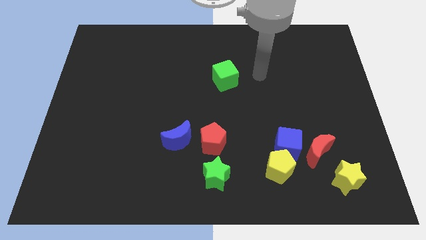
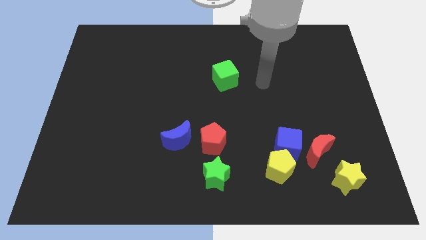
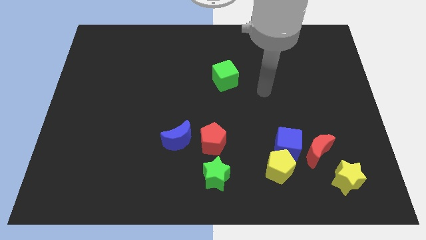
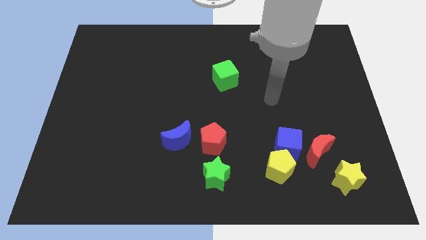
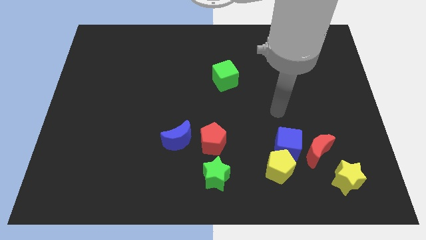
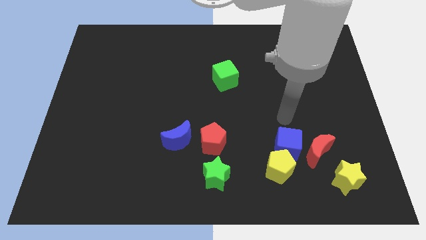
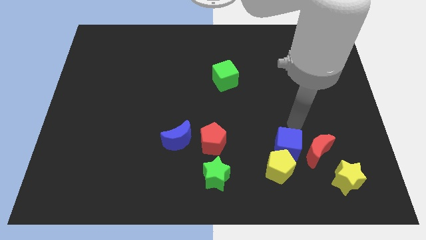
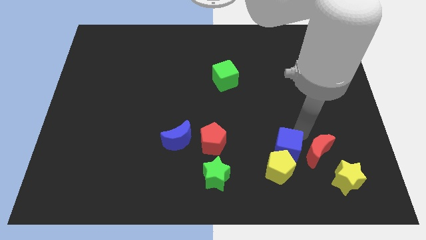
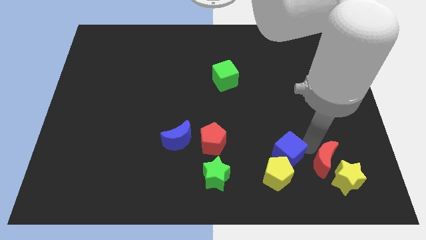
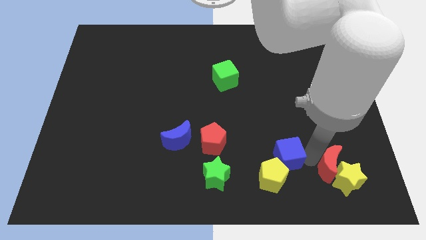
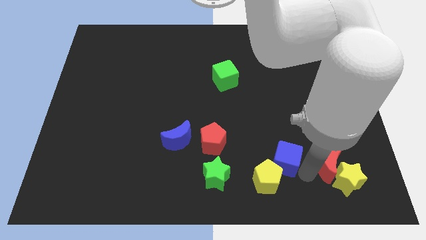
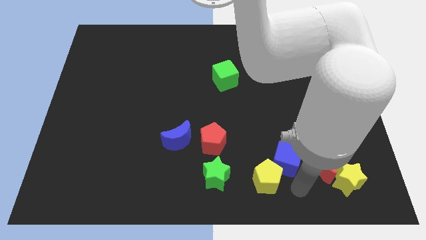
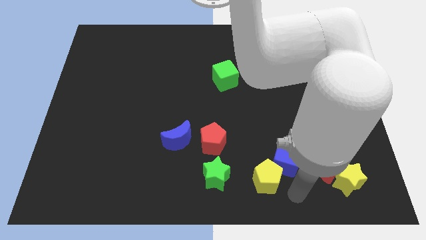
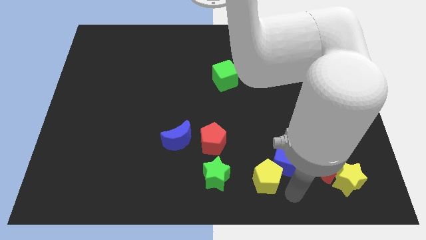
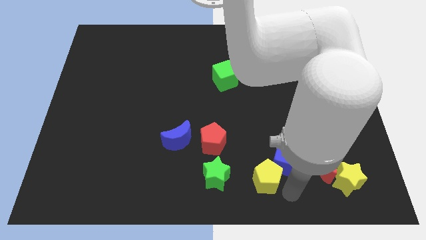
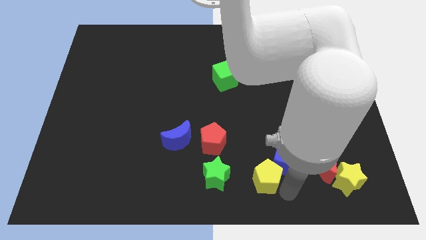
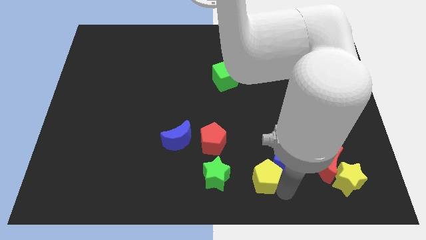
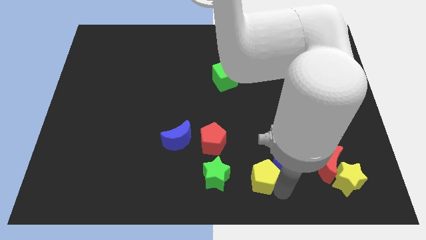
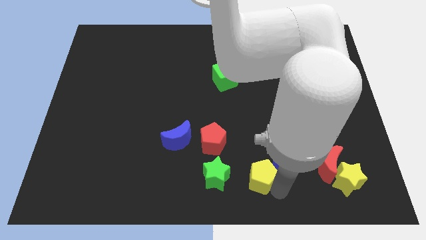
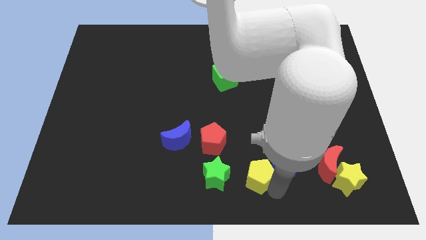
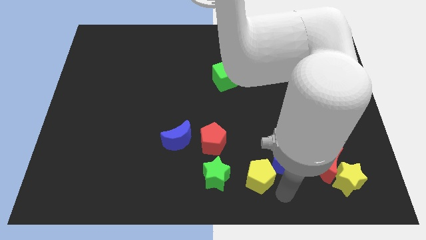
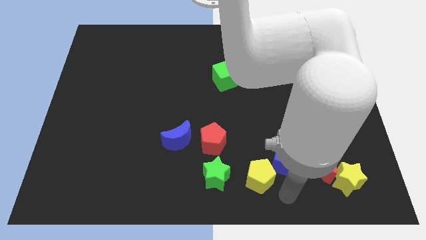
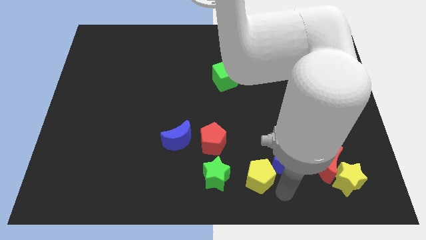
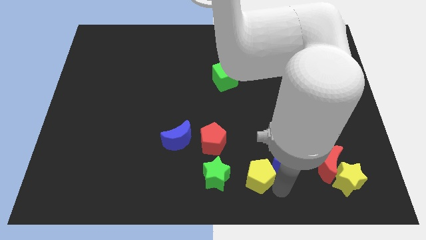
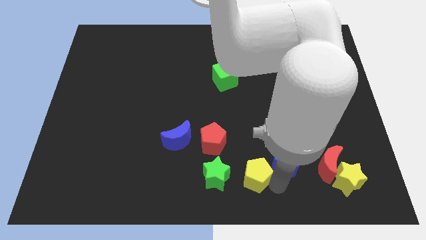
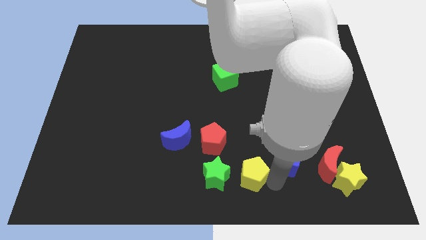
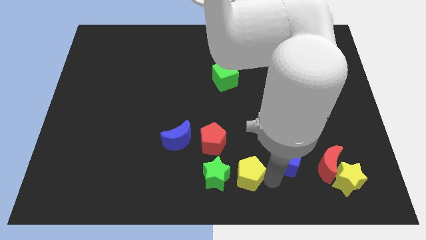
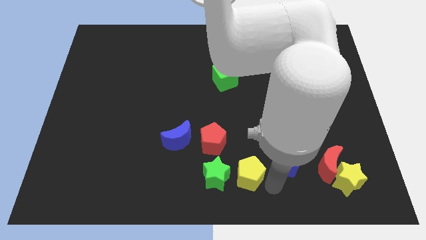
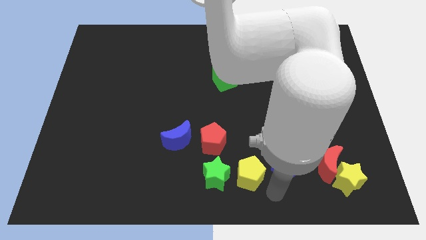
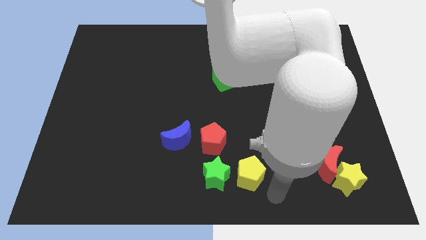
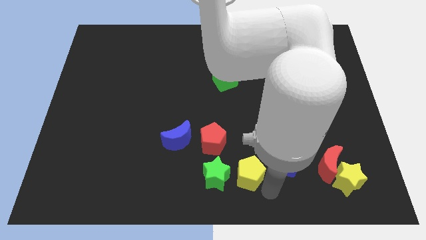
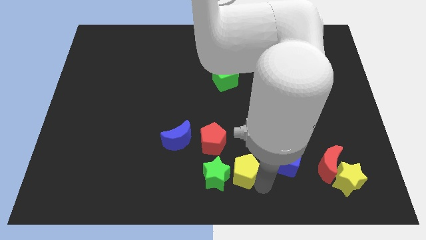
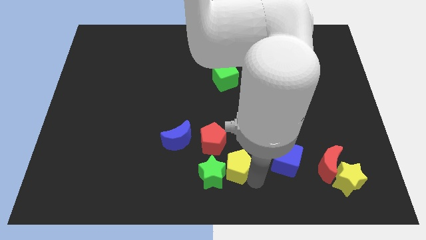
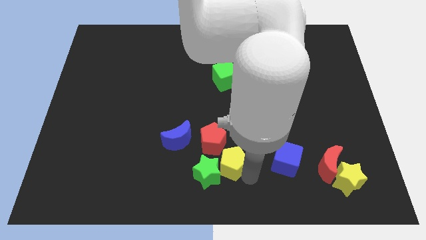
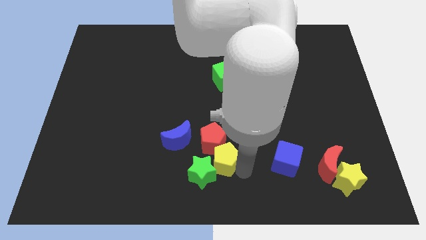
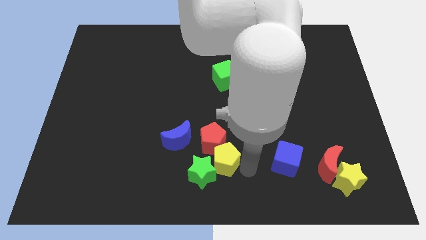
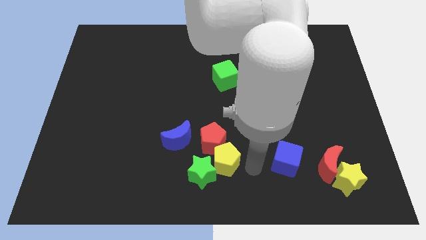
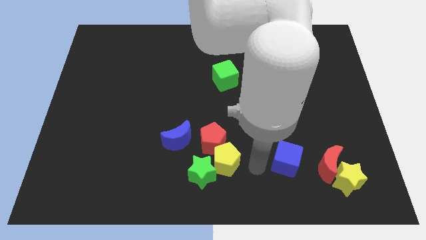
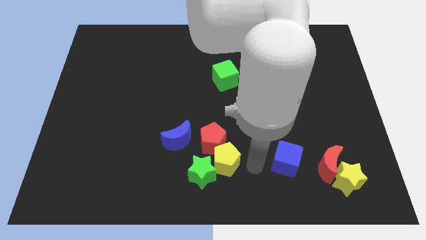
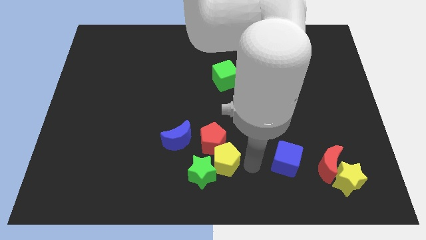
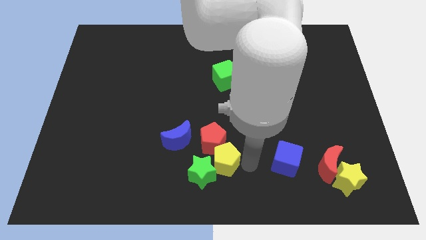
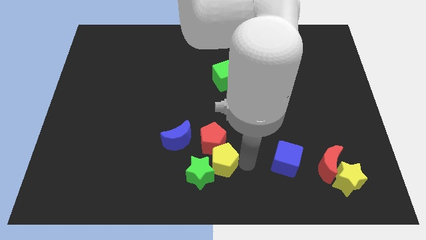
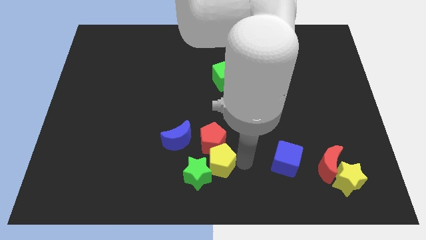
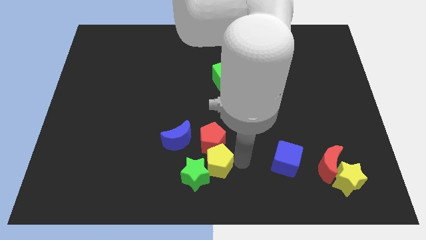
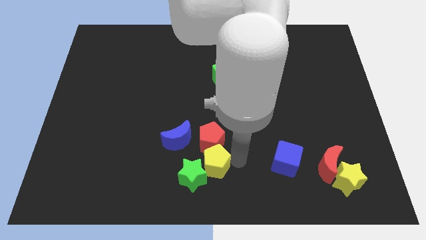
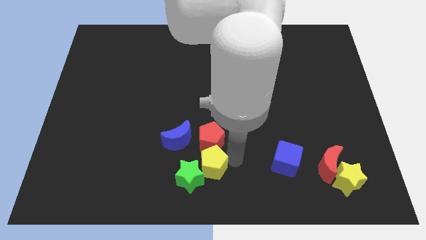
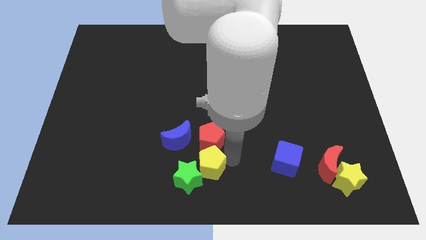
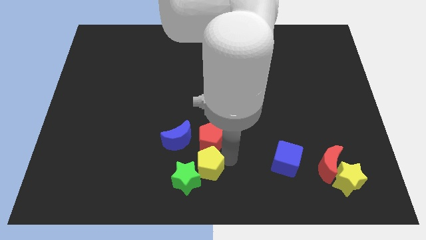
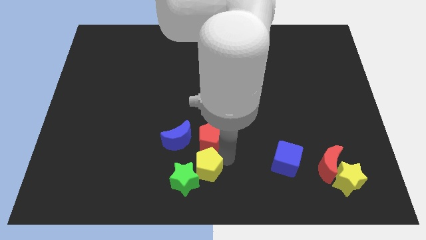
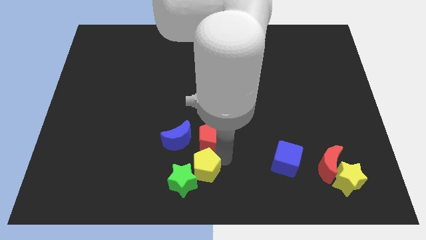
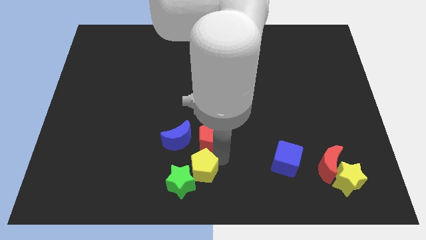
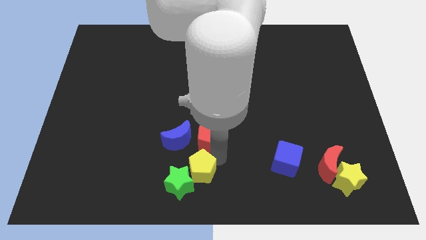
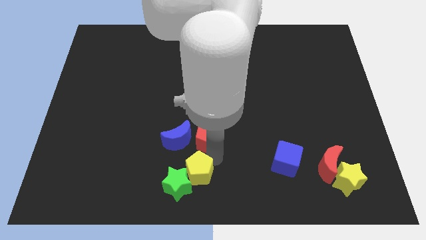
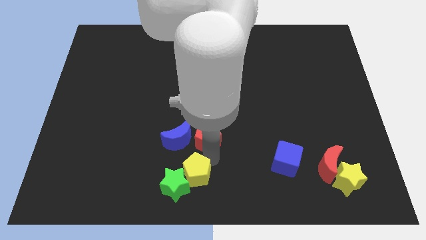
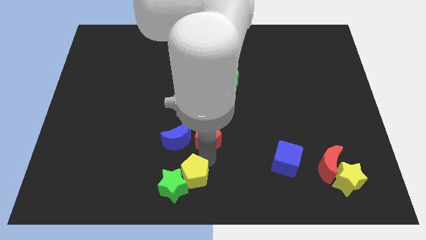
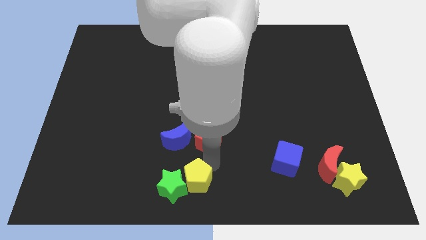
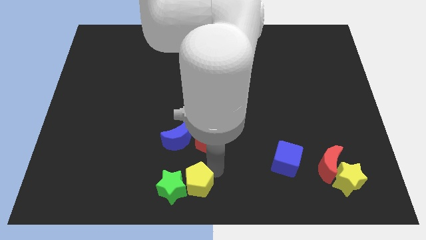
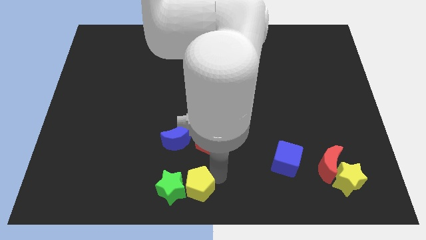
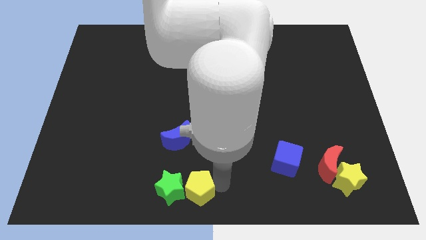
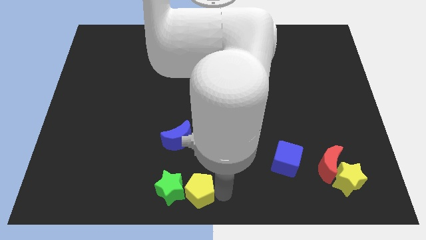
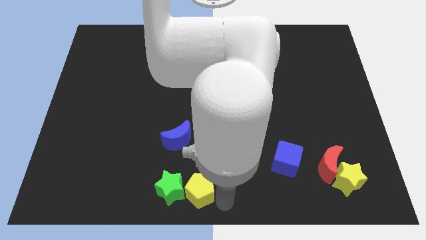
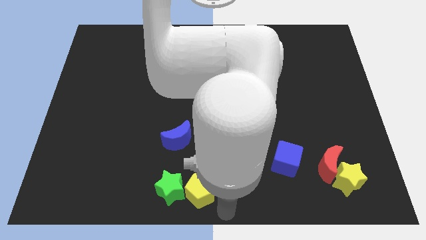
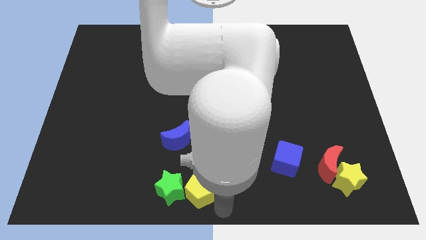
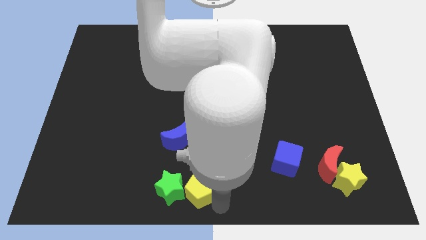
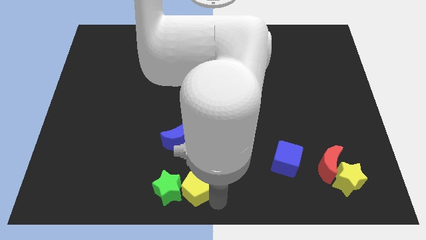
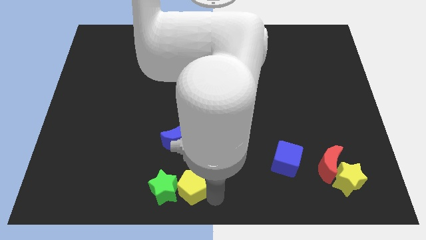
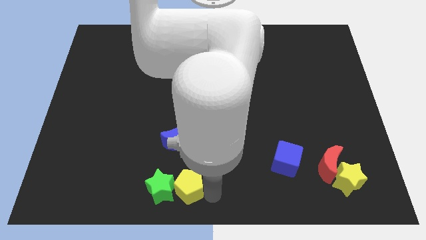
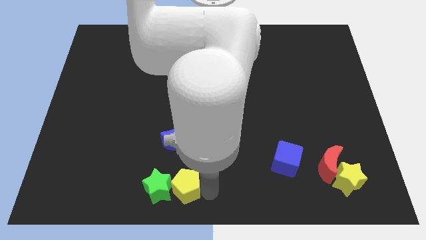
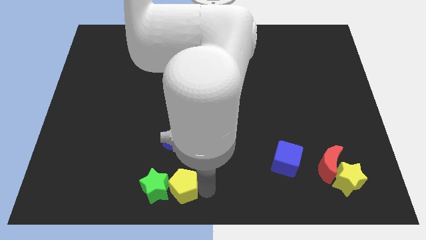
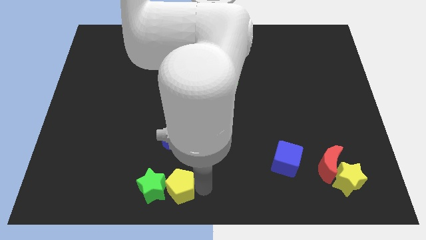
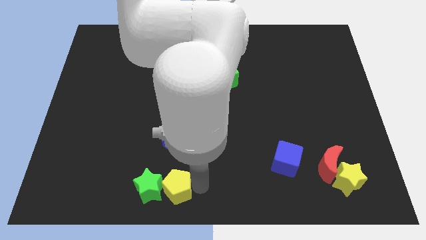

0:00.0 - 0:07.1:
push the yellow pentagon to the left

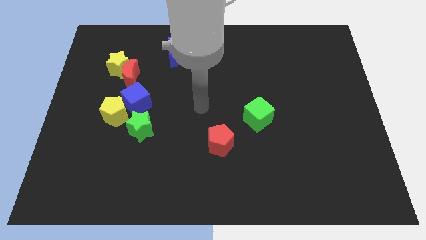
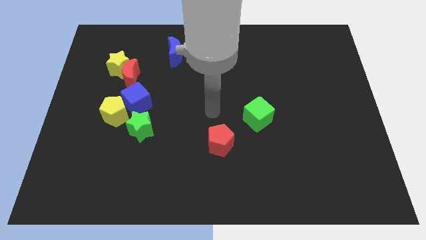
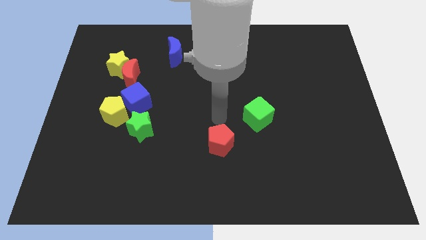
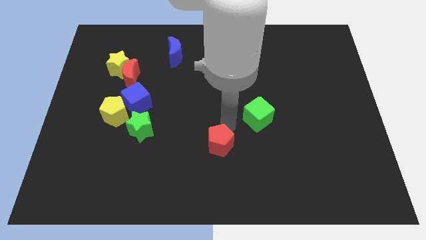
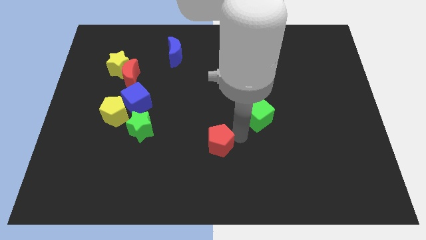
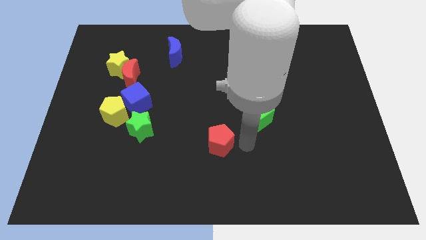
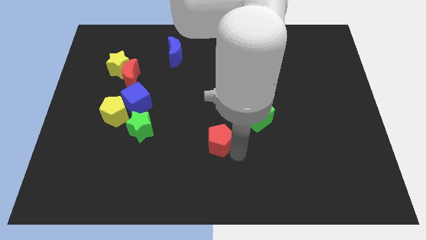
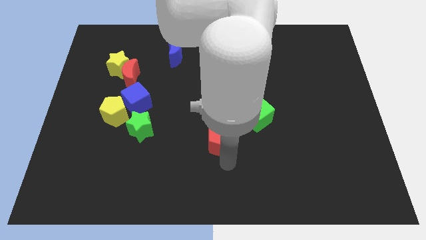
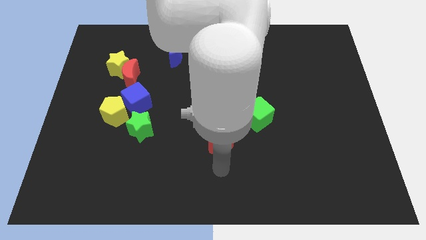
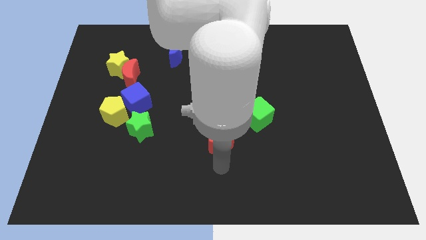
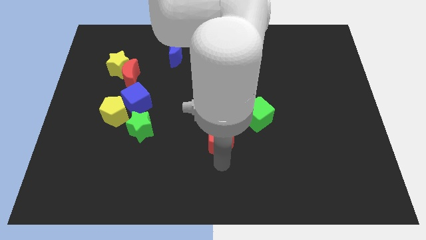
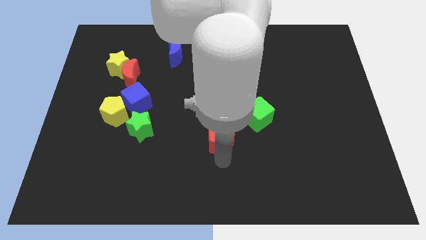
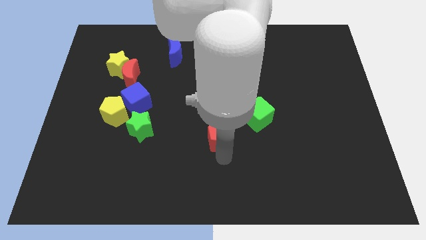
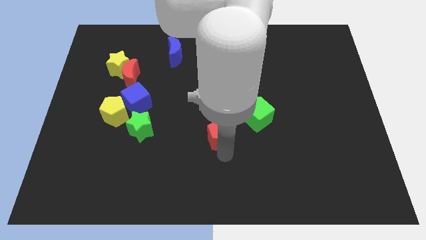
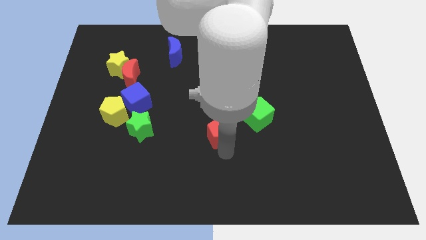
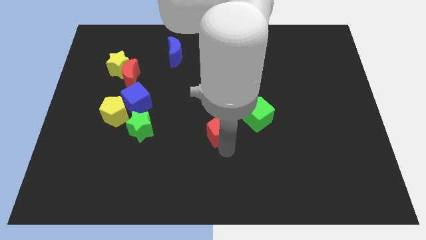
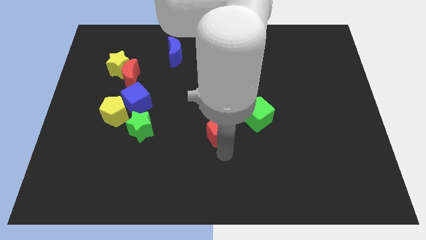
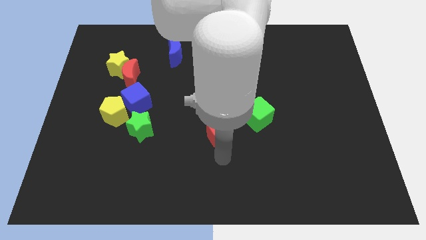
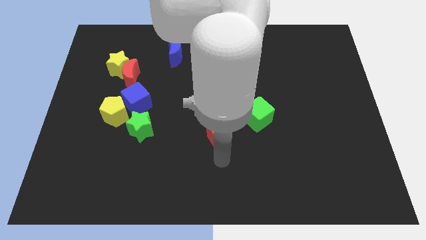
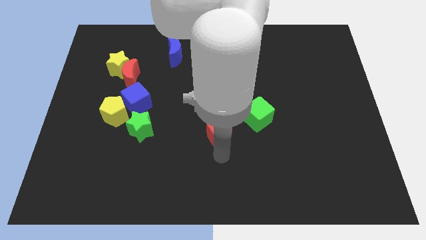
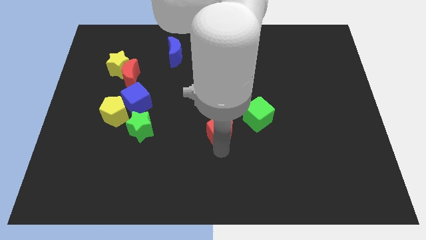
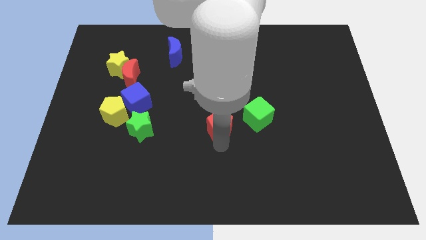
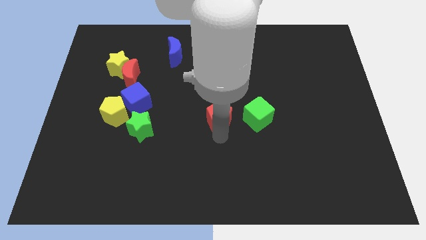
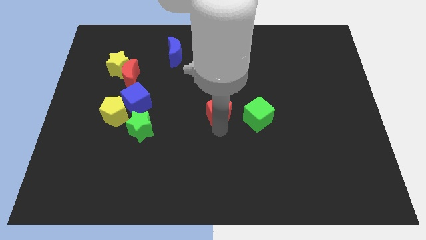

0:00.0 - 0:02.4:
slightly move the red pentagon upwards
